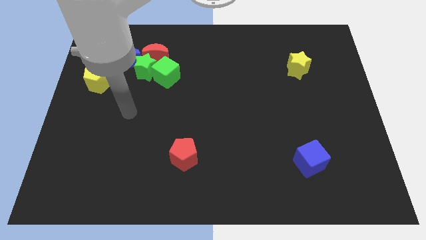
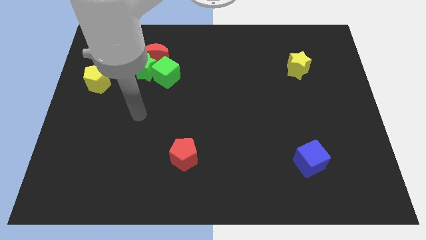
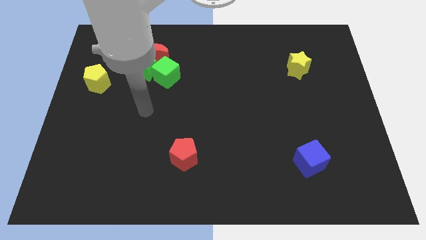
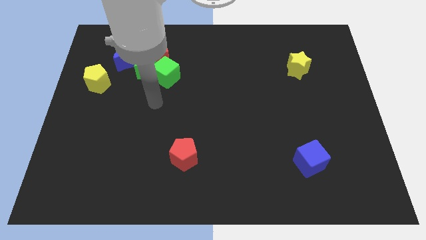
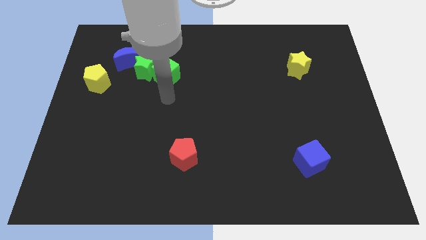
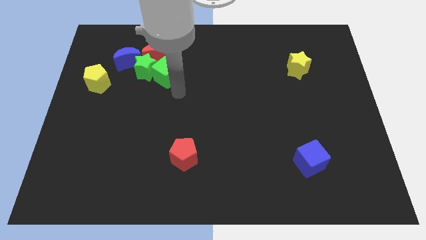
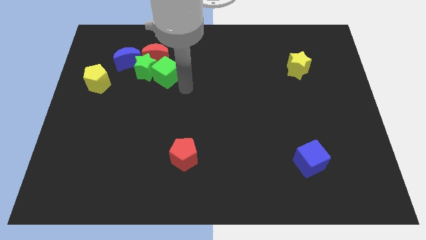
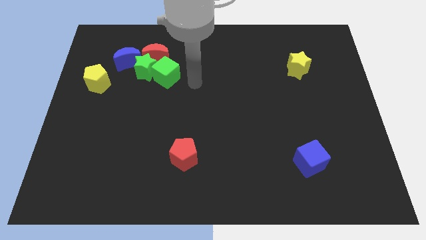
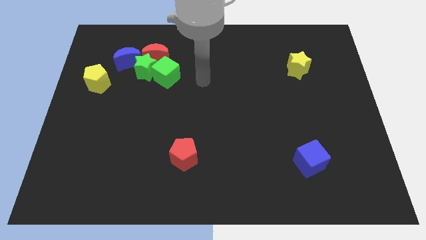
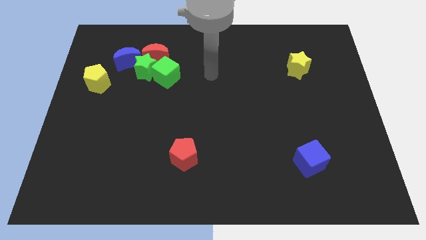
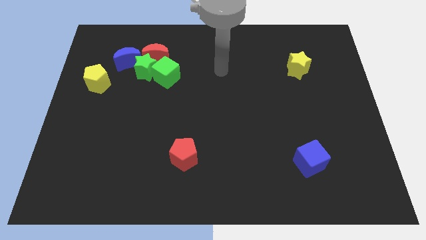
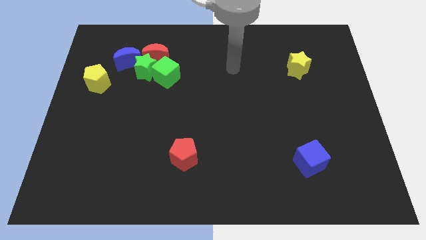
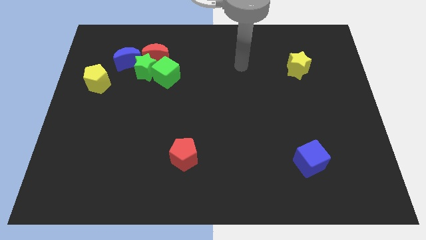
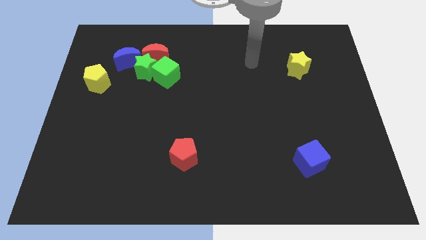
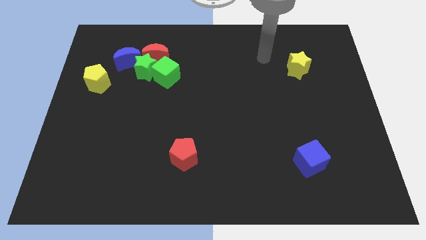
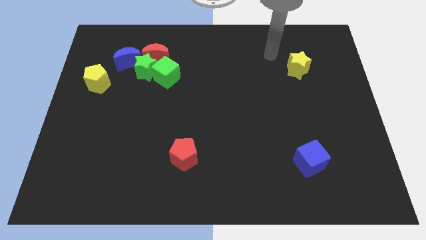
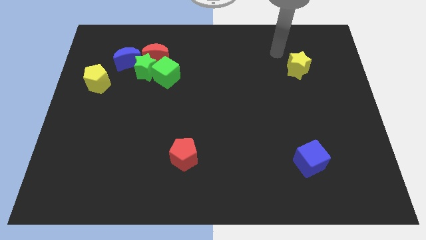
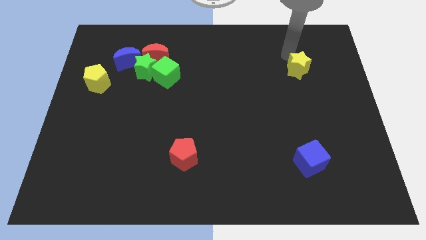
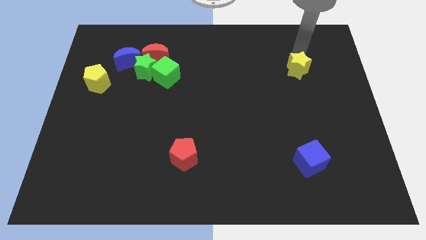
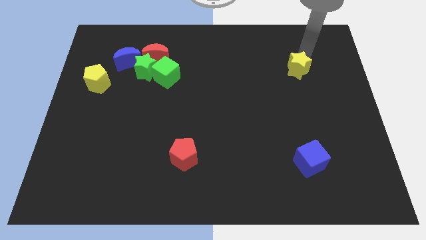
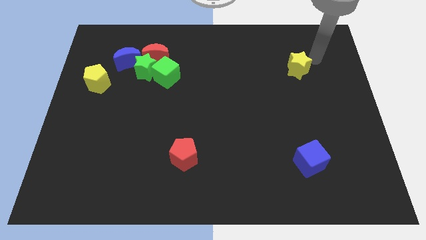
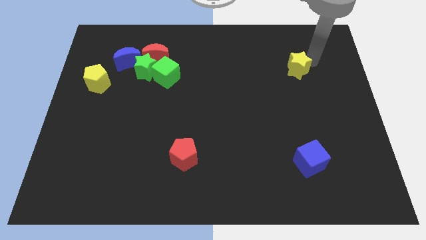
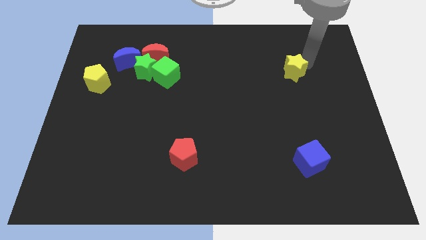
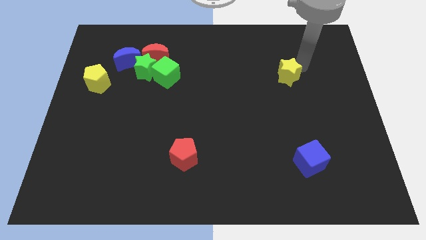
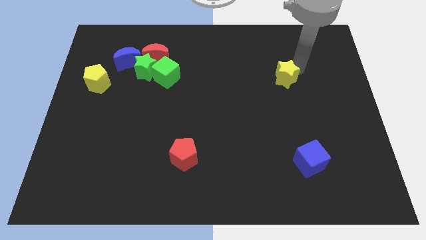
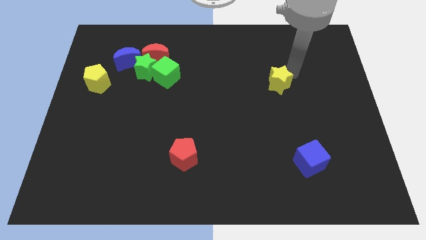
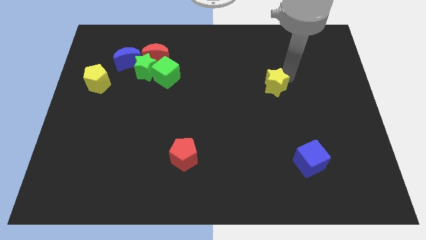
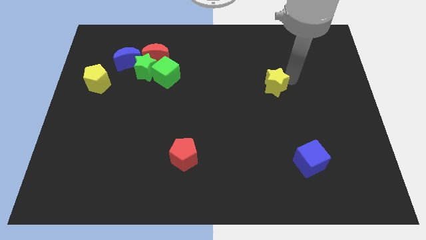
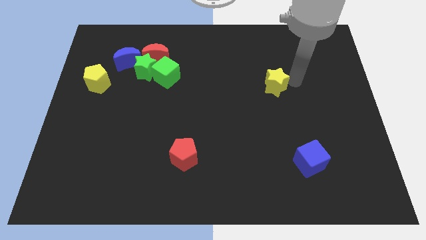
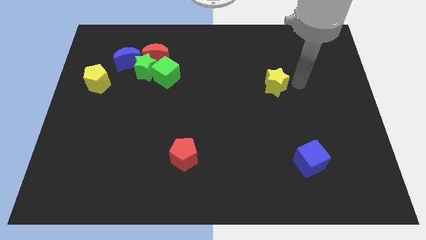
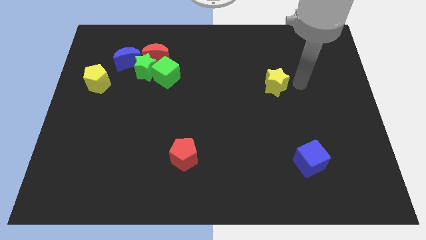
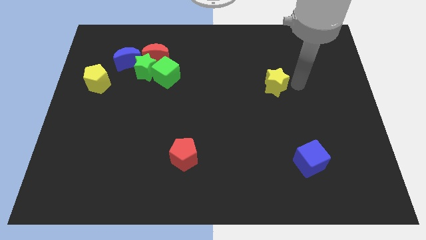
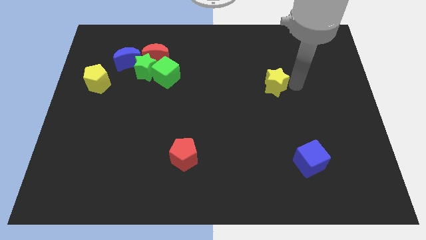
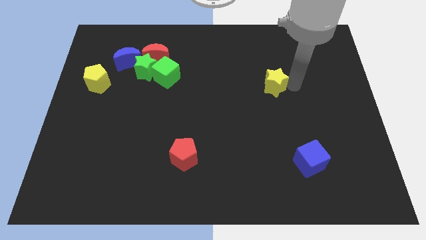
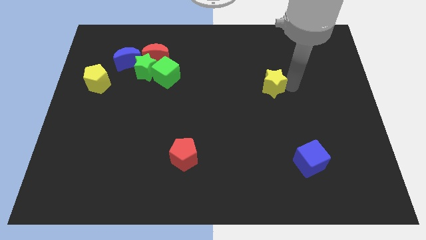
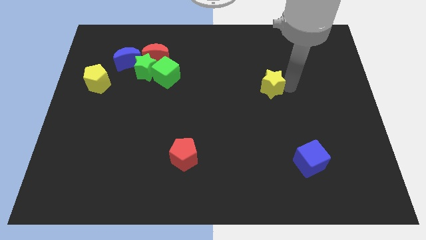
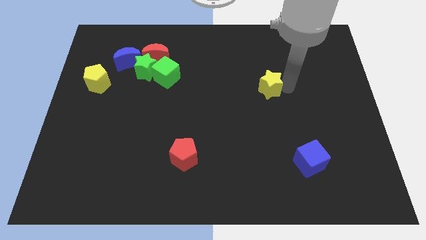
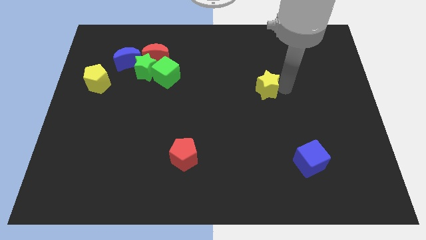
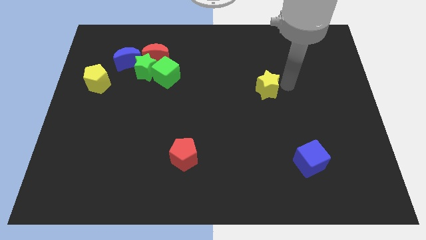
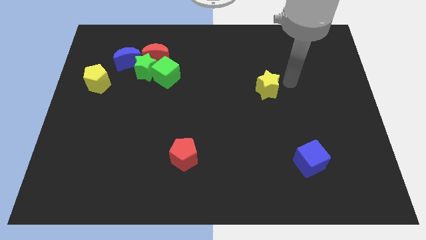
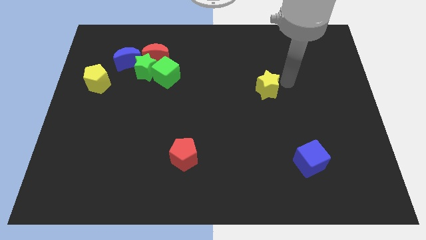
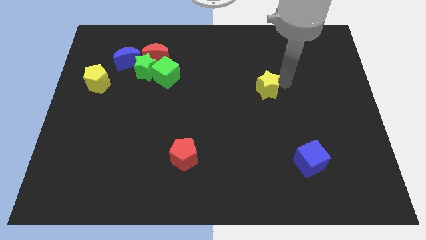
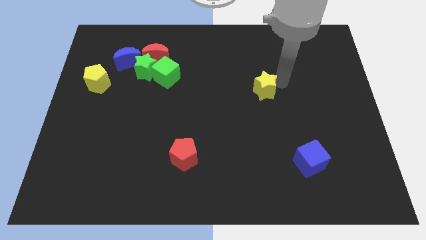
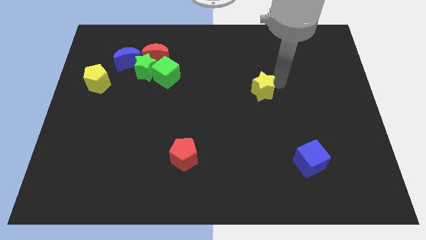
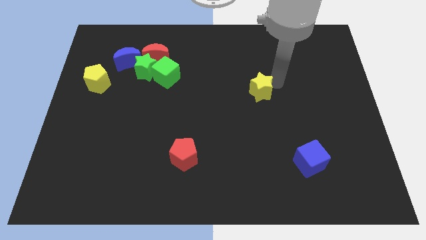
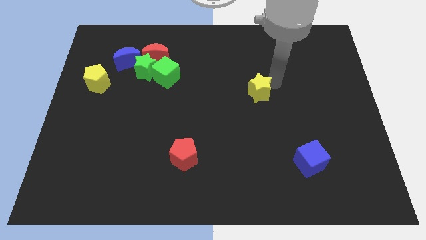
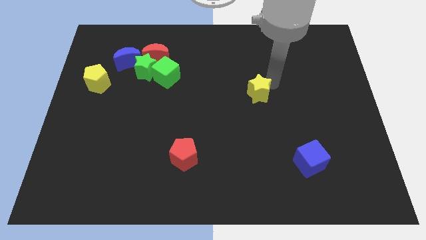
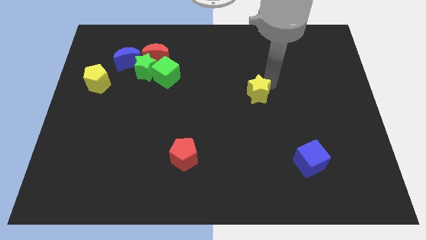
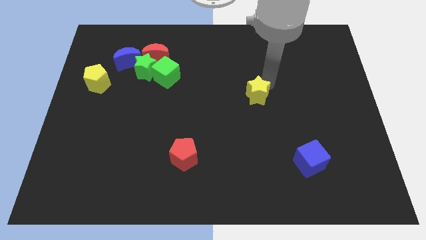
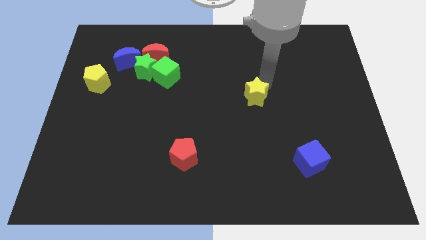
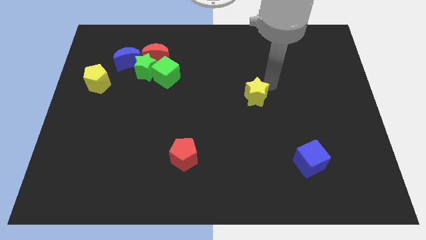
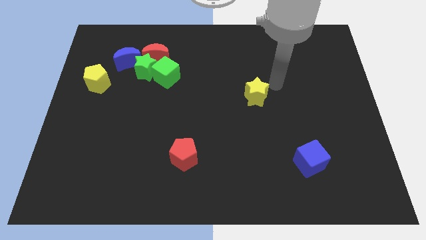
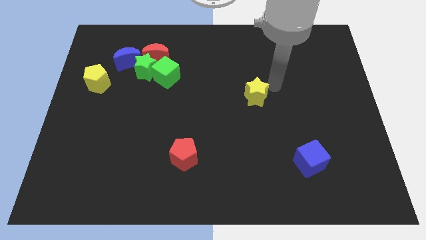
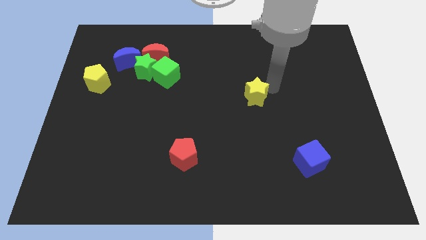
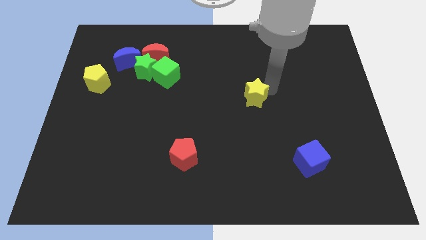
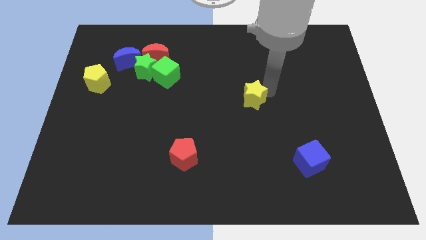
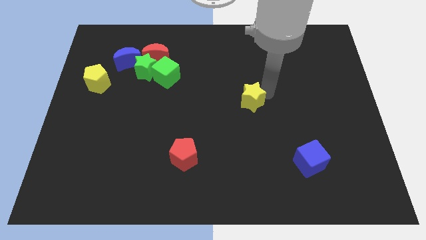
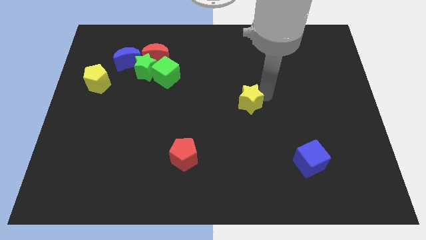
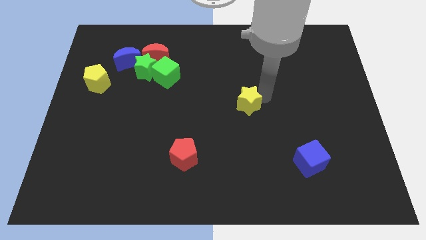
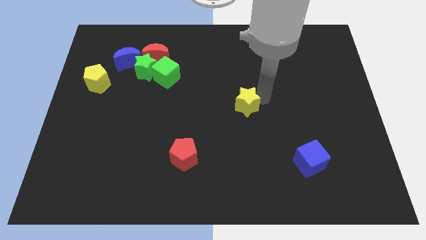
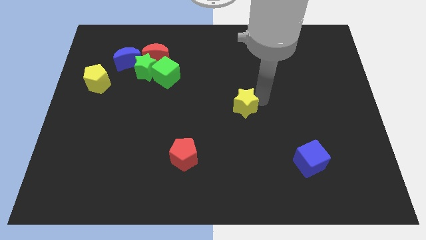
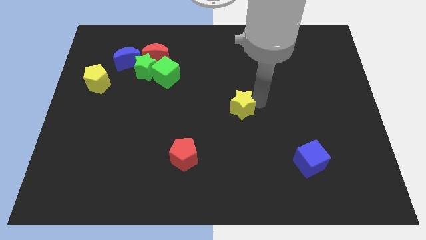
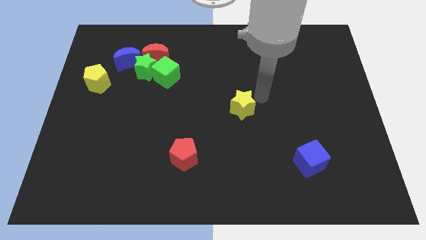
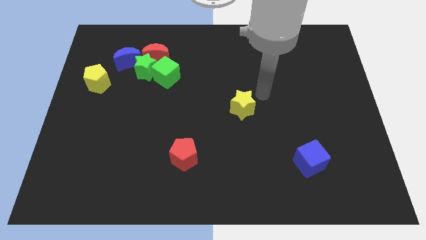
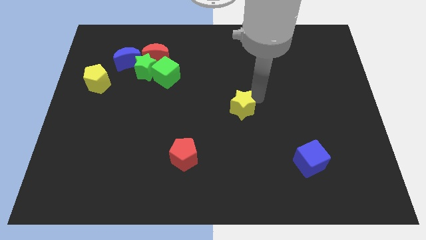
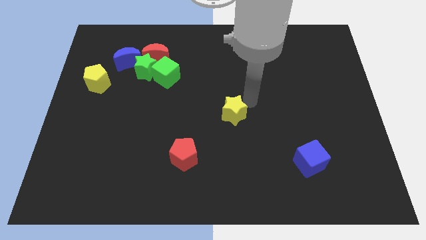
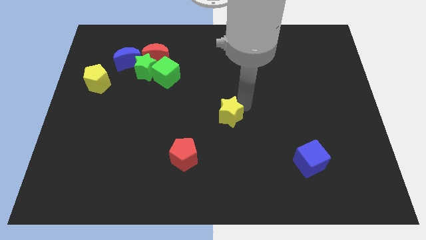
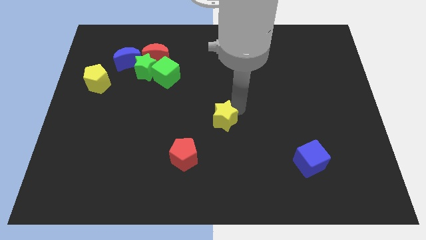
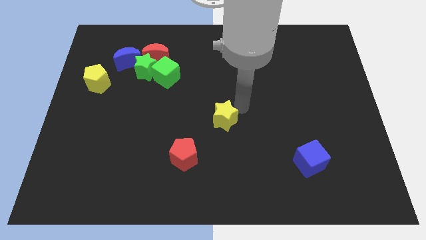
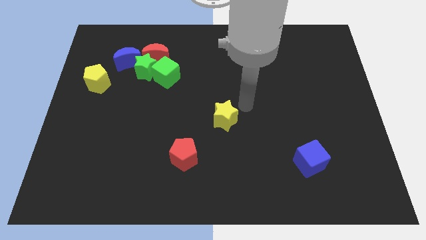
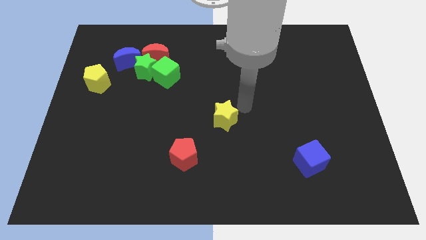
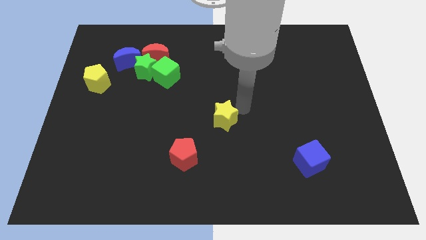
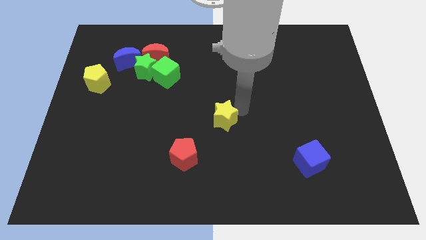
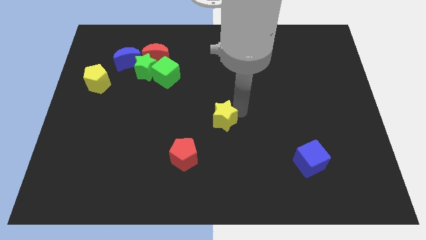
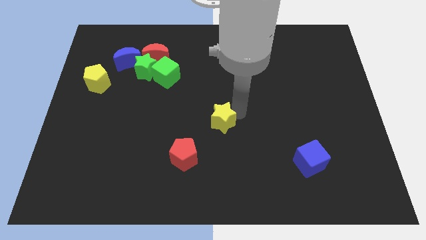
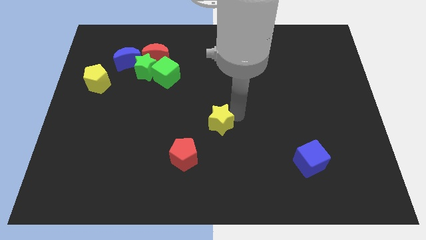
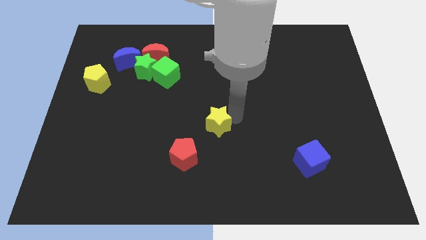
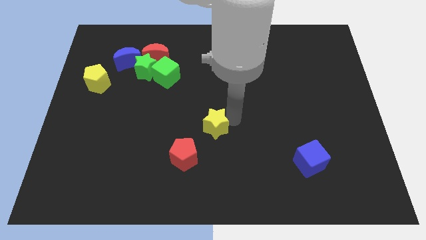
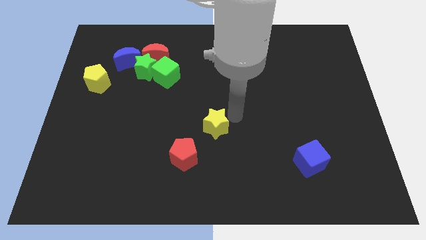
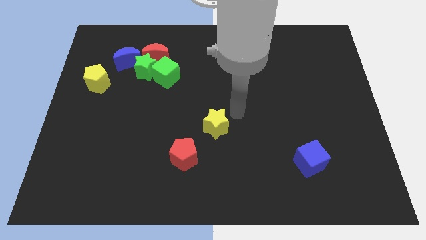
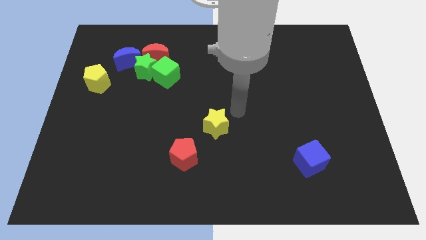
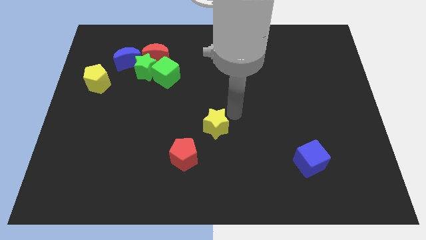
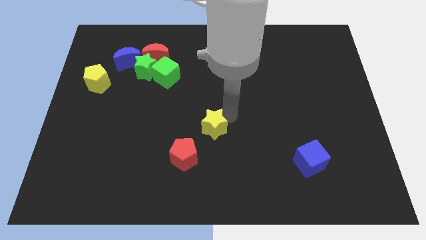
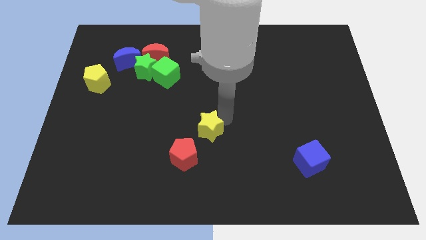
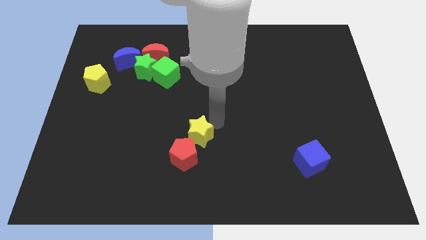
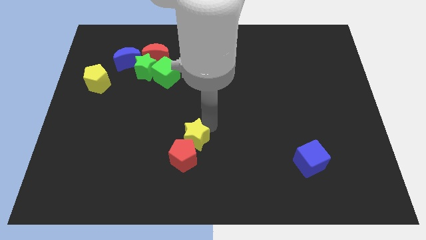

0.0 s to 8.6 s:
push the yellow star to the red pentagon
